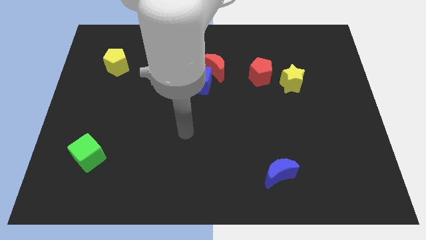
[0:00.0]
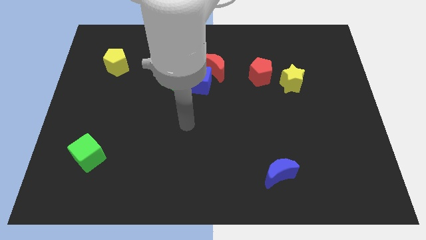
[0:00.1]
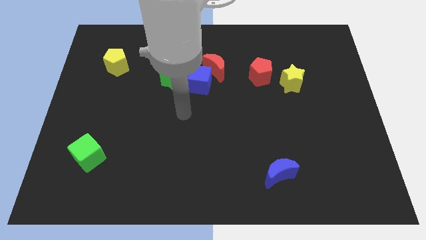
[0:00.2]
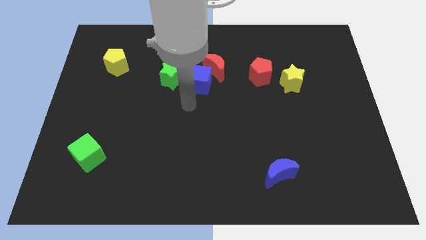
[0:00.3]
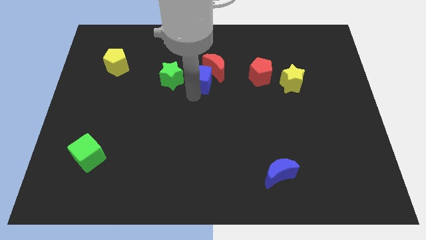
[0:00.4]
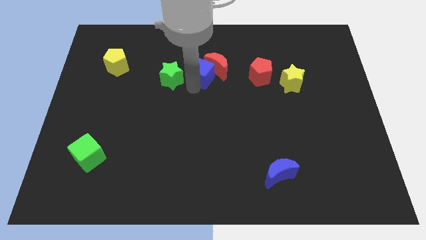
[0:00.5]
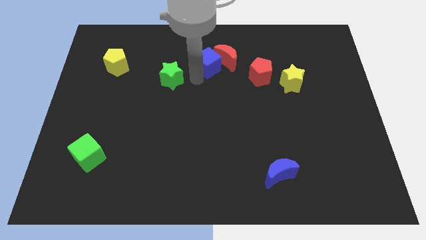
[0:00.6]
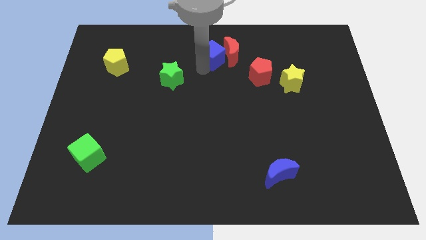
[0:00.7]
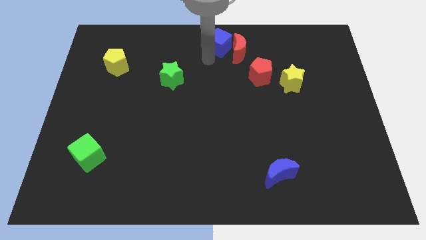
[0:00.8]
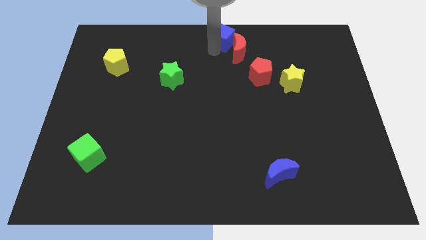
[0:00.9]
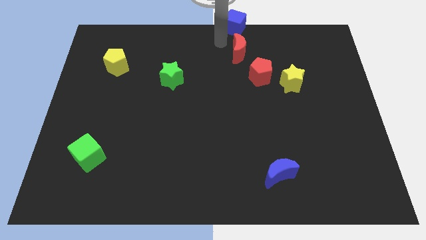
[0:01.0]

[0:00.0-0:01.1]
move the red moon away from the blue cube

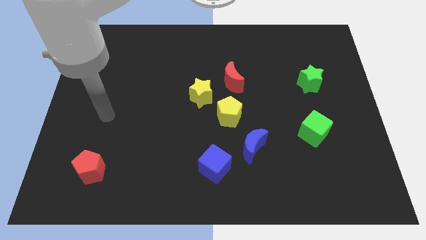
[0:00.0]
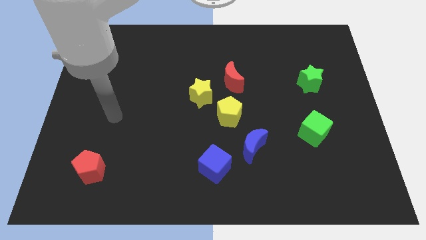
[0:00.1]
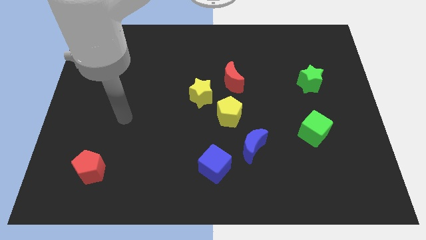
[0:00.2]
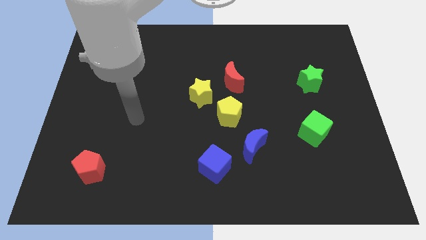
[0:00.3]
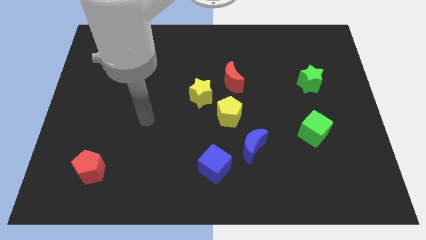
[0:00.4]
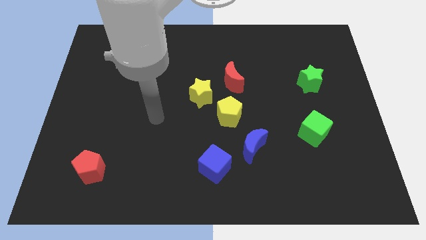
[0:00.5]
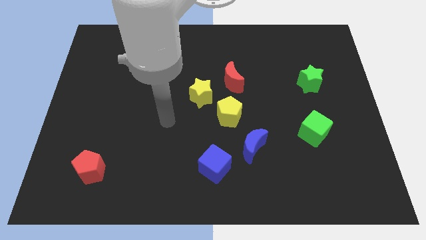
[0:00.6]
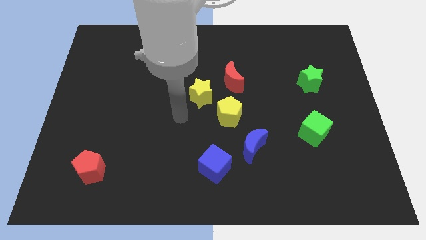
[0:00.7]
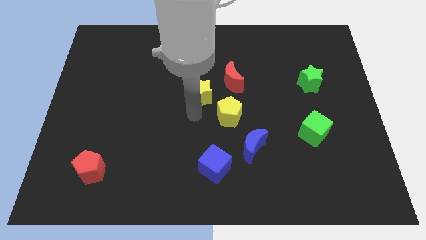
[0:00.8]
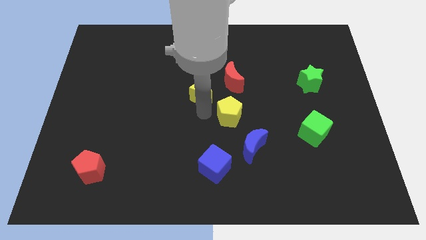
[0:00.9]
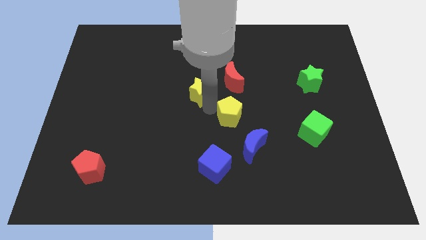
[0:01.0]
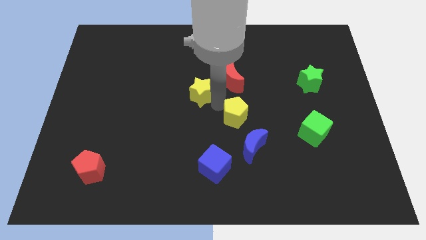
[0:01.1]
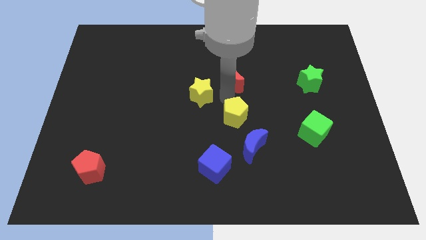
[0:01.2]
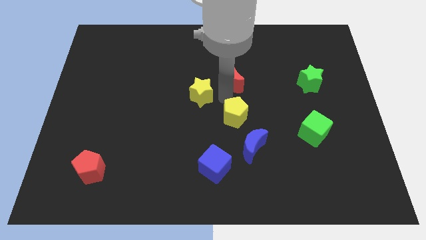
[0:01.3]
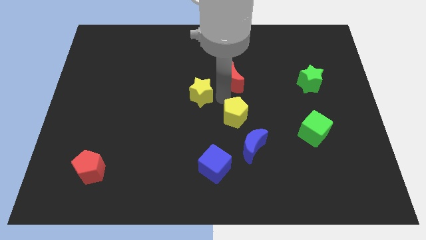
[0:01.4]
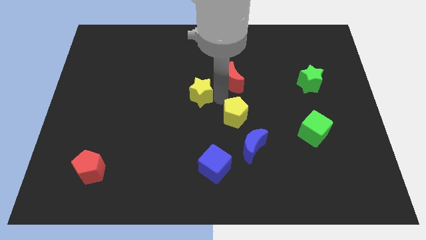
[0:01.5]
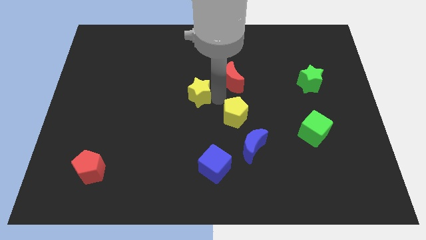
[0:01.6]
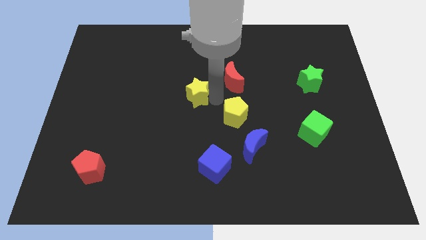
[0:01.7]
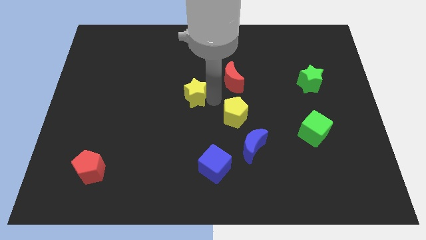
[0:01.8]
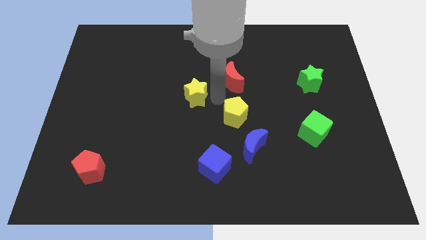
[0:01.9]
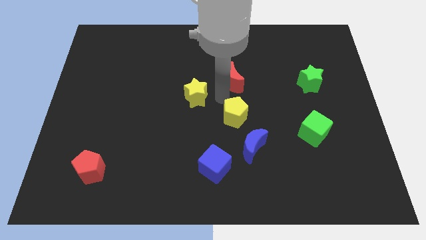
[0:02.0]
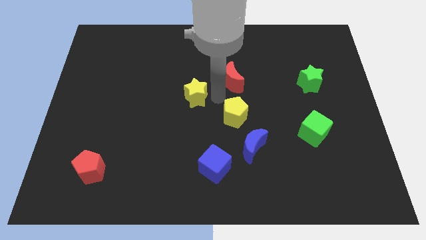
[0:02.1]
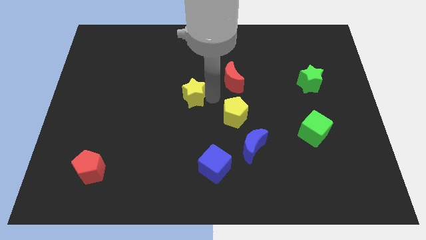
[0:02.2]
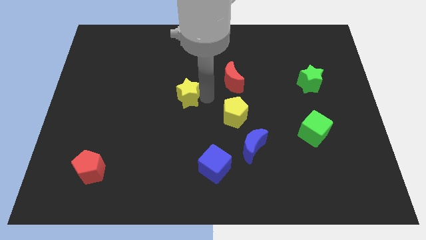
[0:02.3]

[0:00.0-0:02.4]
pull the yellow star apart from the yellow pentagon and red moon

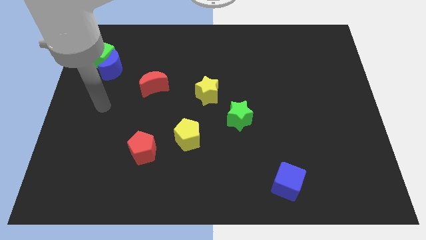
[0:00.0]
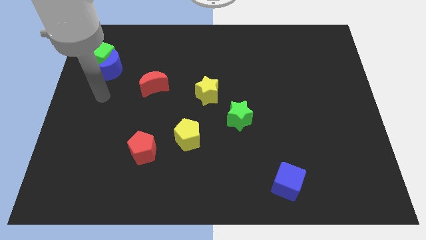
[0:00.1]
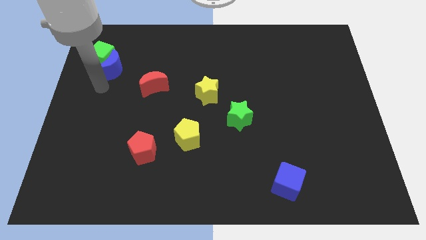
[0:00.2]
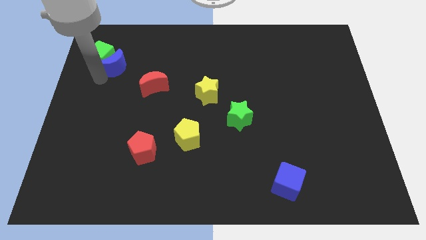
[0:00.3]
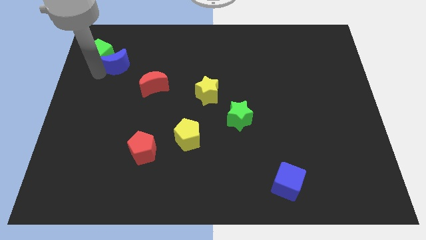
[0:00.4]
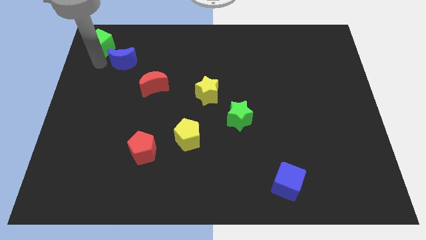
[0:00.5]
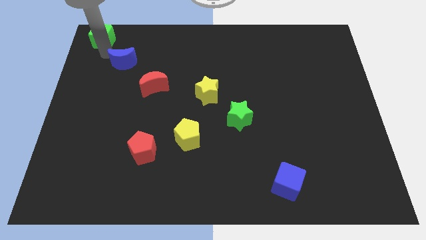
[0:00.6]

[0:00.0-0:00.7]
pull the blue moon apart from the green cube

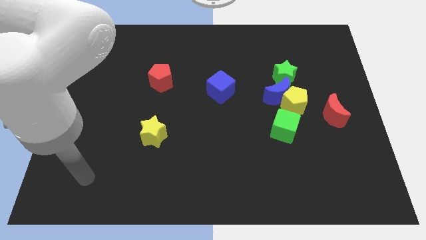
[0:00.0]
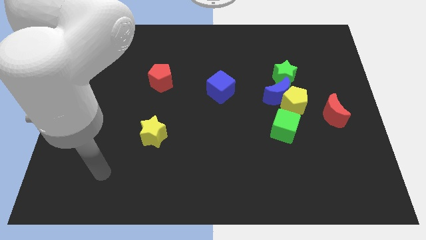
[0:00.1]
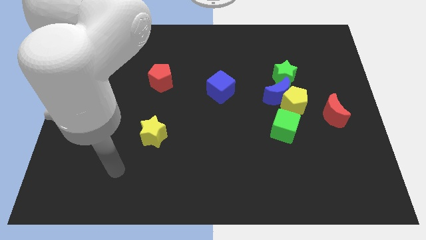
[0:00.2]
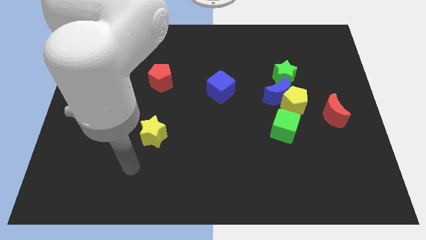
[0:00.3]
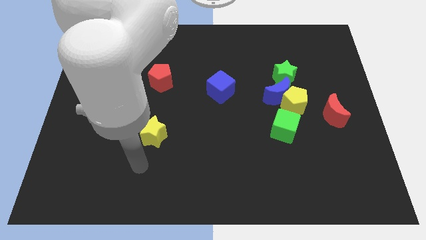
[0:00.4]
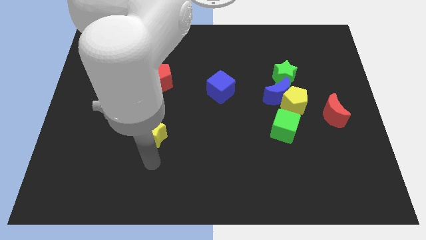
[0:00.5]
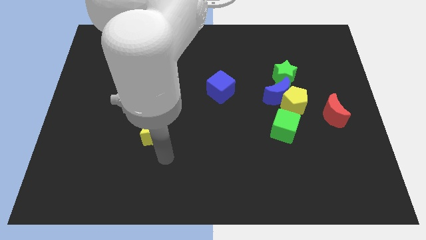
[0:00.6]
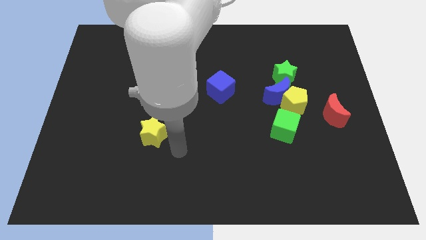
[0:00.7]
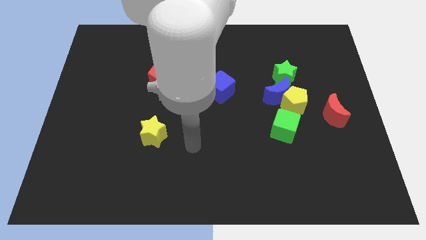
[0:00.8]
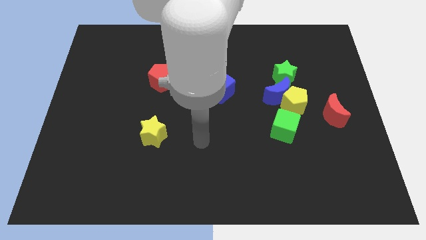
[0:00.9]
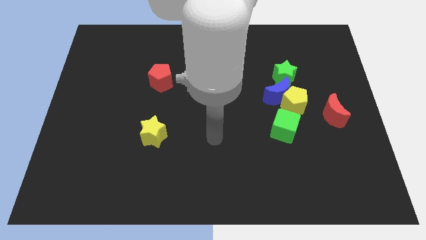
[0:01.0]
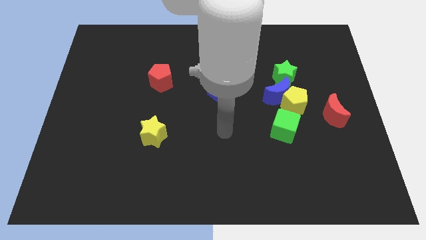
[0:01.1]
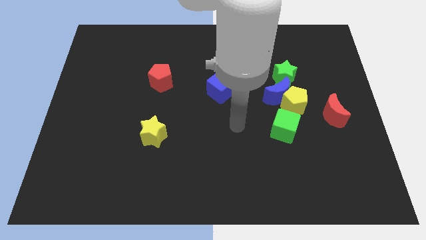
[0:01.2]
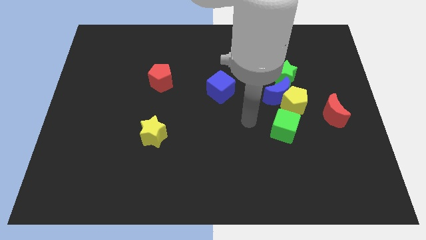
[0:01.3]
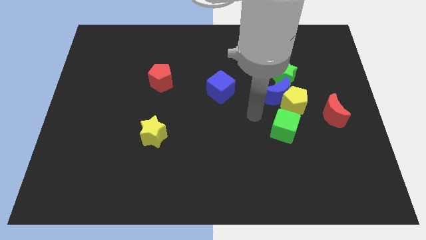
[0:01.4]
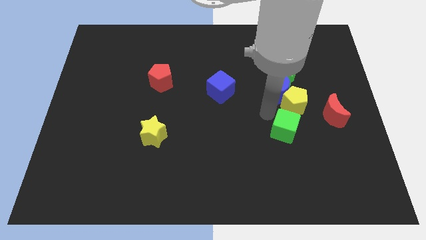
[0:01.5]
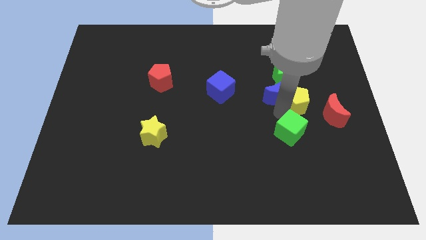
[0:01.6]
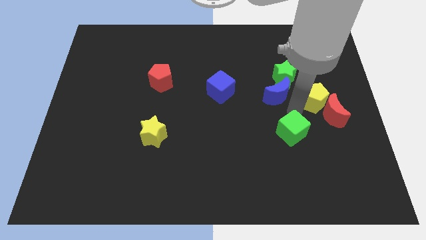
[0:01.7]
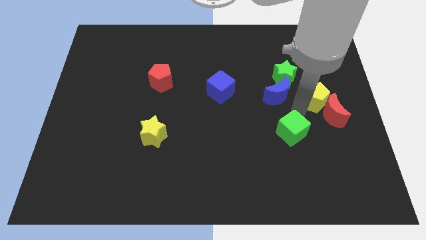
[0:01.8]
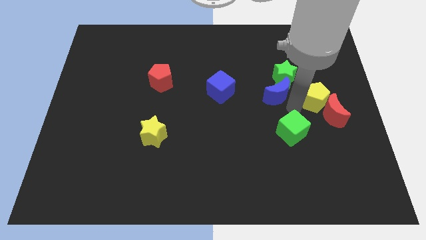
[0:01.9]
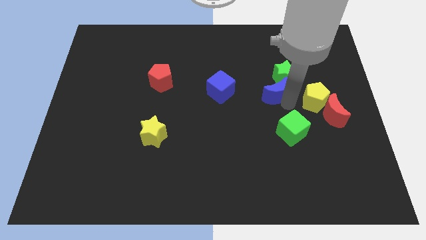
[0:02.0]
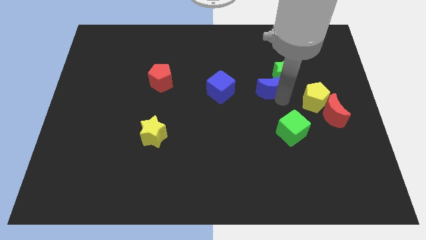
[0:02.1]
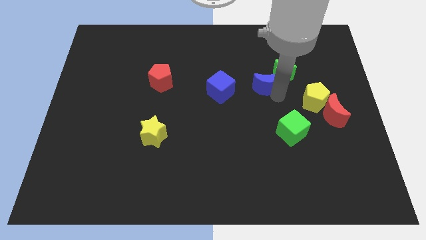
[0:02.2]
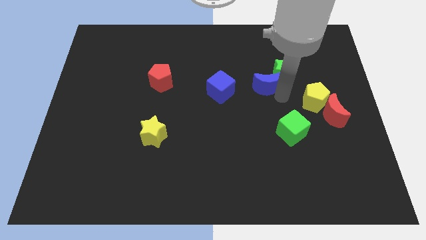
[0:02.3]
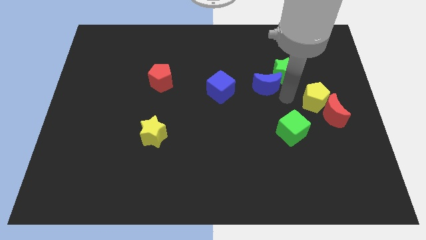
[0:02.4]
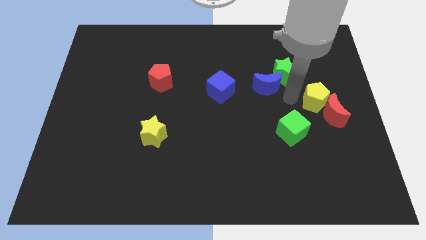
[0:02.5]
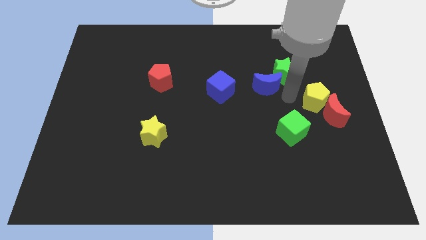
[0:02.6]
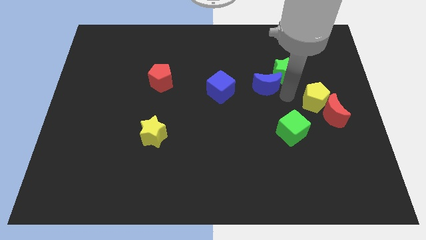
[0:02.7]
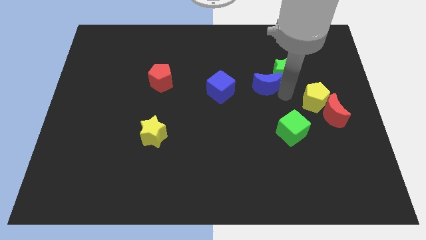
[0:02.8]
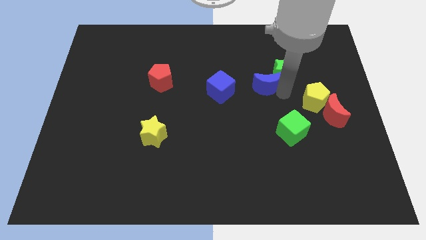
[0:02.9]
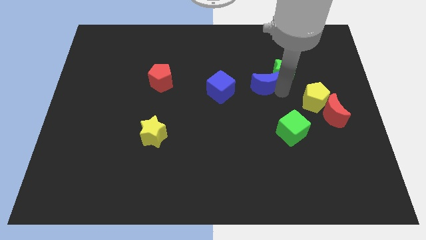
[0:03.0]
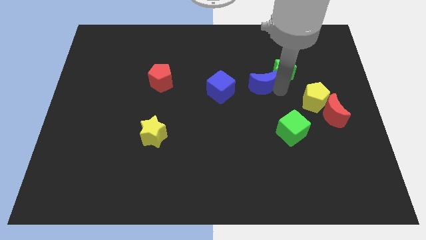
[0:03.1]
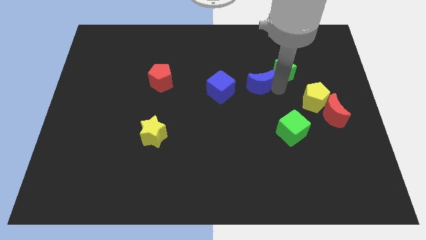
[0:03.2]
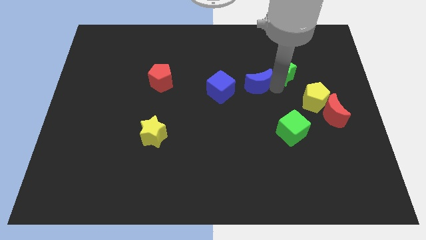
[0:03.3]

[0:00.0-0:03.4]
separate the blue moon from the yellow pentagon, green star, and green cube

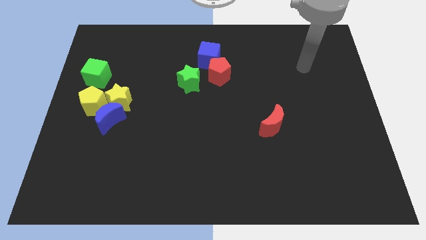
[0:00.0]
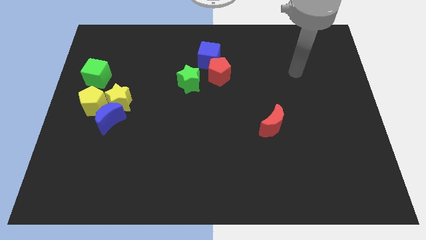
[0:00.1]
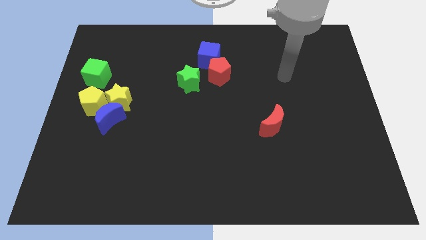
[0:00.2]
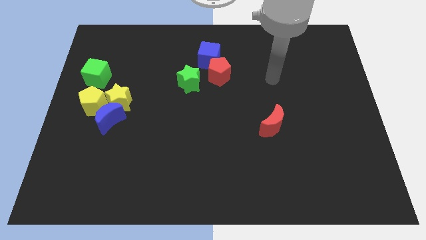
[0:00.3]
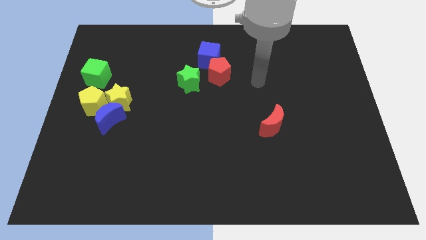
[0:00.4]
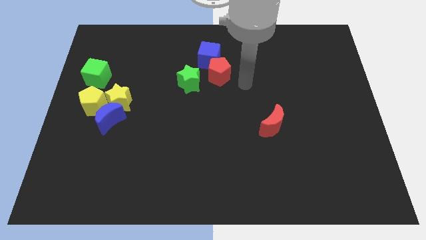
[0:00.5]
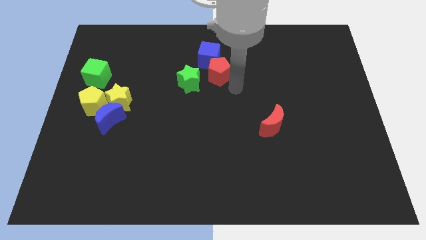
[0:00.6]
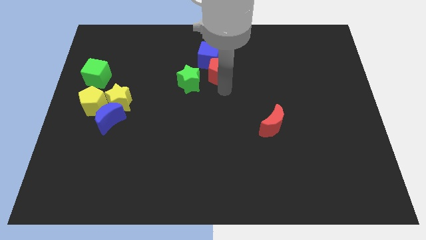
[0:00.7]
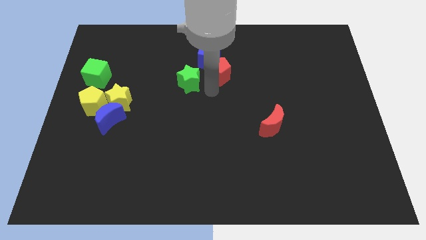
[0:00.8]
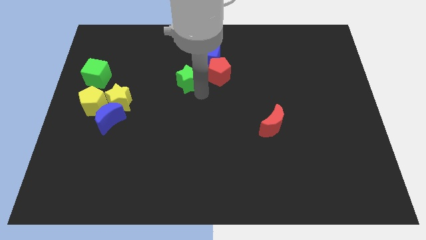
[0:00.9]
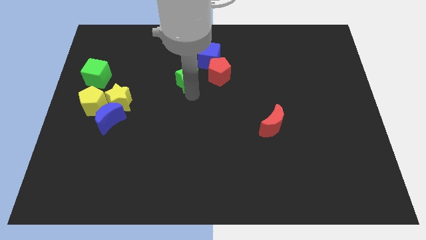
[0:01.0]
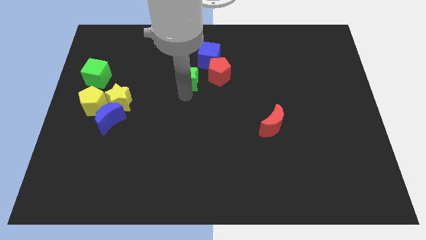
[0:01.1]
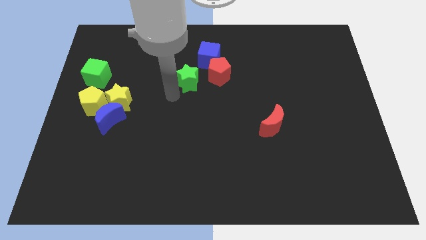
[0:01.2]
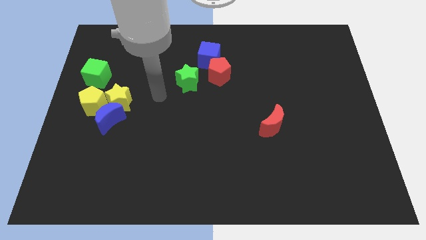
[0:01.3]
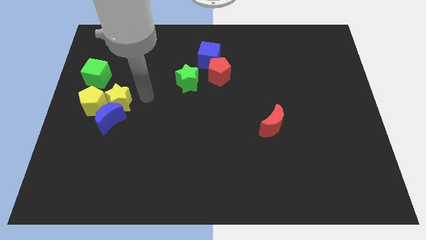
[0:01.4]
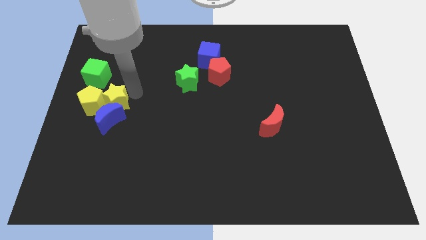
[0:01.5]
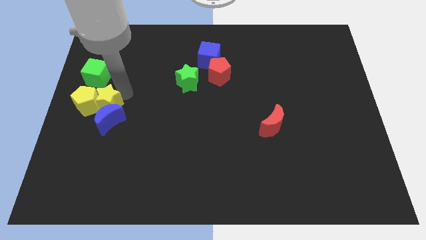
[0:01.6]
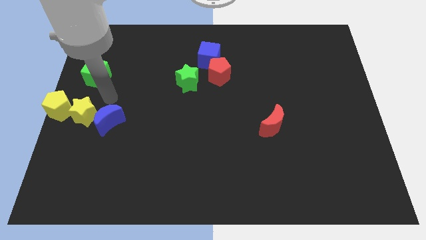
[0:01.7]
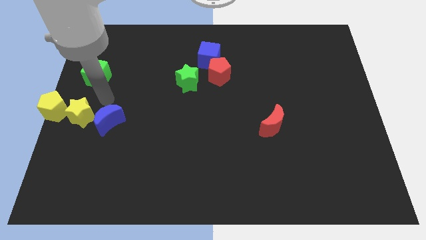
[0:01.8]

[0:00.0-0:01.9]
separate the blue moon from the yellow star and yellow pentagon
